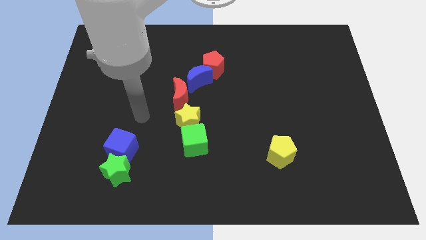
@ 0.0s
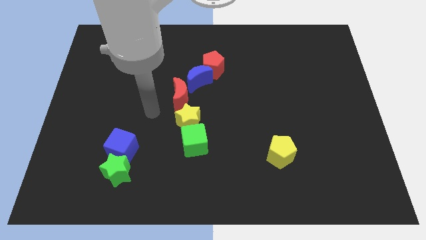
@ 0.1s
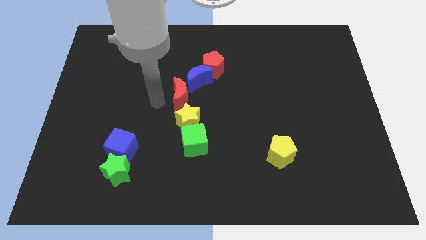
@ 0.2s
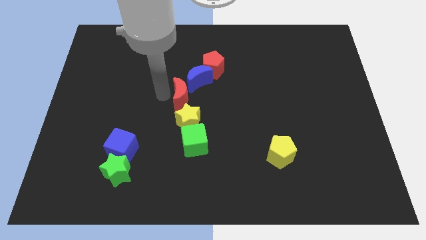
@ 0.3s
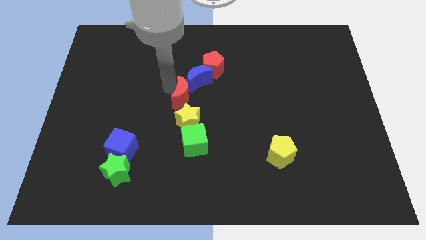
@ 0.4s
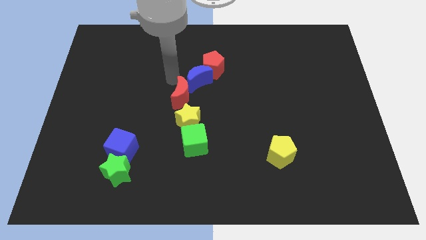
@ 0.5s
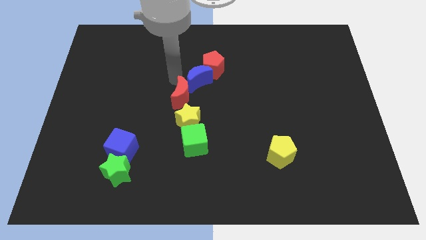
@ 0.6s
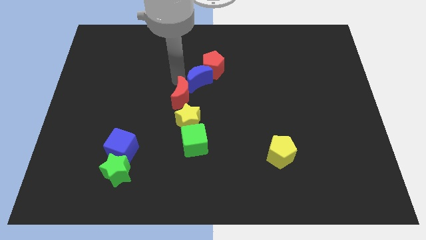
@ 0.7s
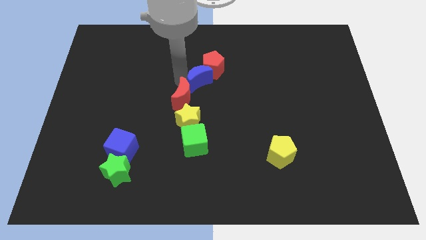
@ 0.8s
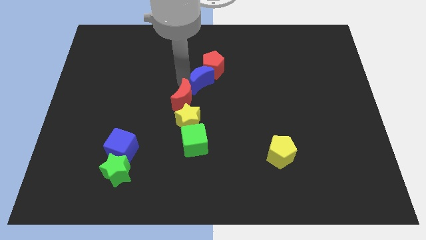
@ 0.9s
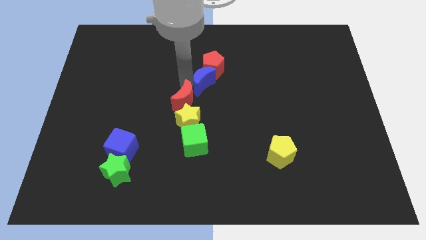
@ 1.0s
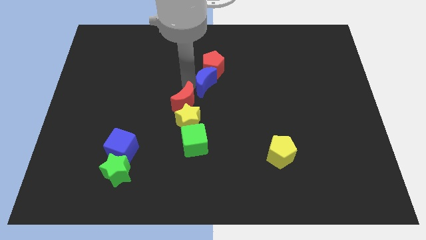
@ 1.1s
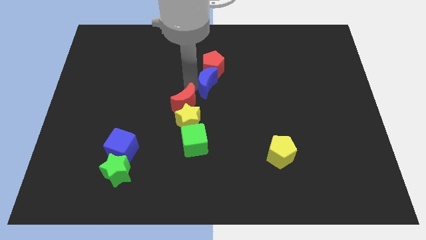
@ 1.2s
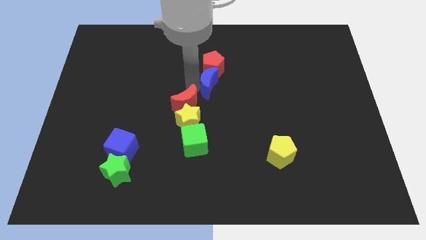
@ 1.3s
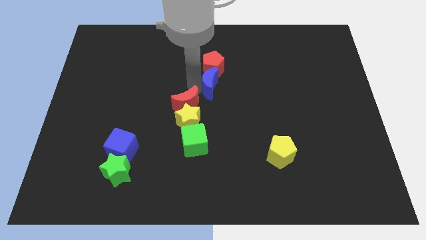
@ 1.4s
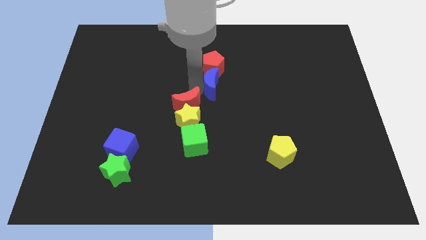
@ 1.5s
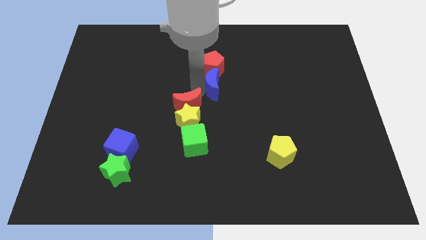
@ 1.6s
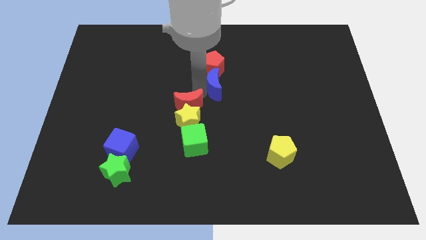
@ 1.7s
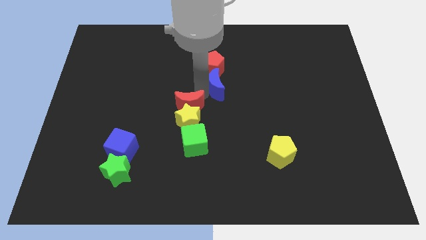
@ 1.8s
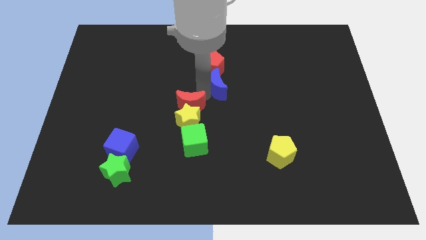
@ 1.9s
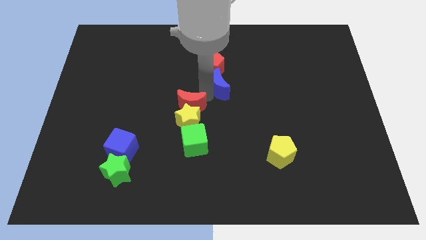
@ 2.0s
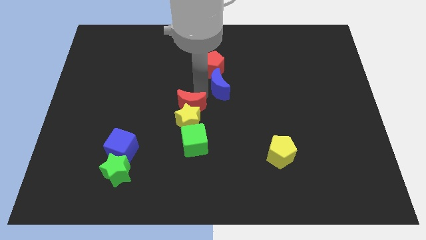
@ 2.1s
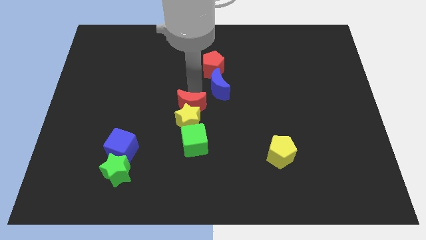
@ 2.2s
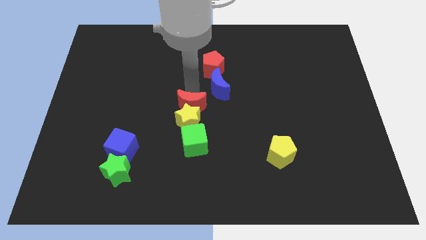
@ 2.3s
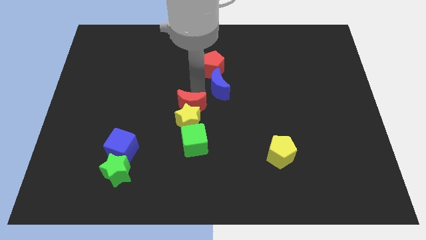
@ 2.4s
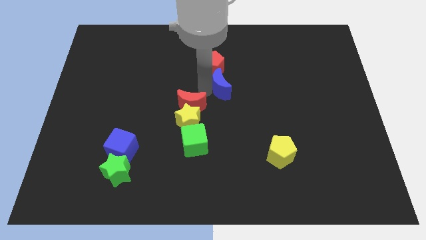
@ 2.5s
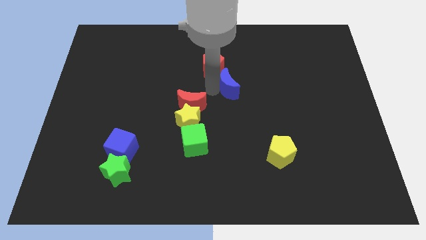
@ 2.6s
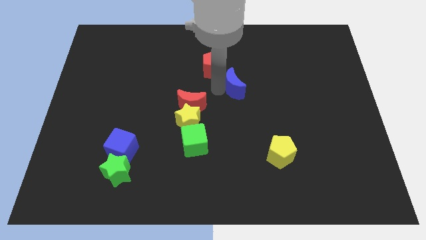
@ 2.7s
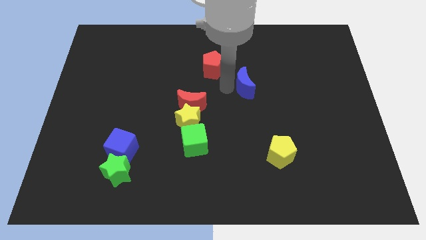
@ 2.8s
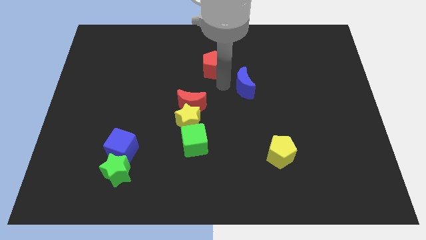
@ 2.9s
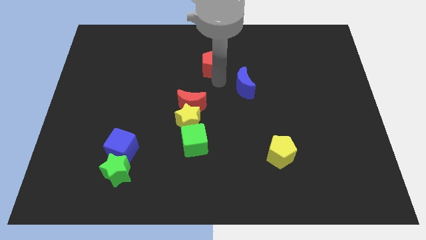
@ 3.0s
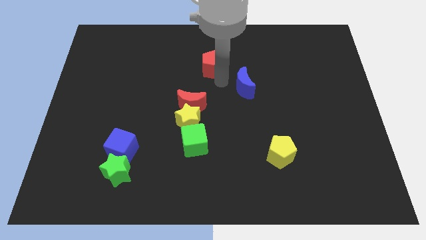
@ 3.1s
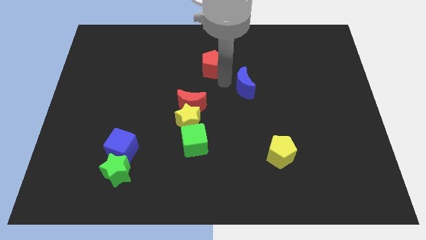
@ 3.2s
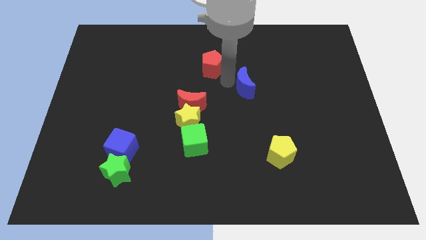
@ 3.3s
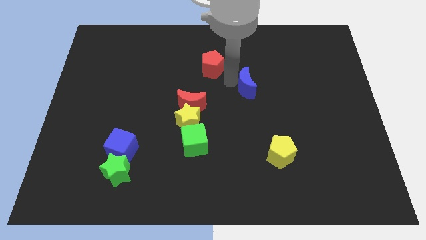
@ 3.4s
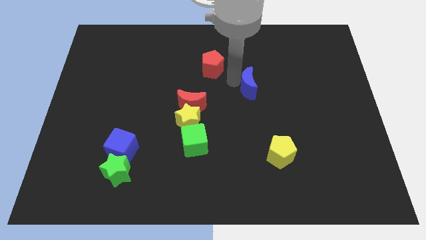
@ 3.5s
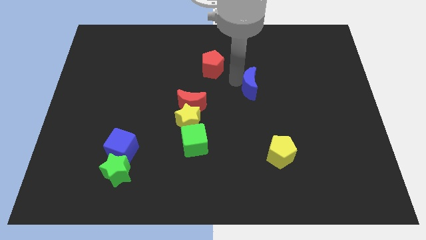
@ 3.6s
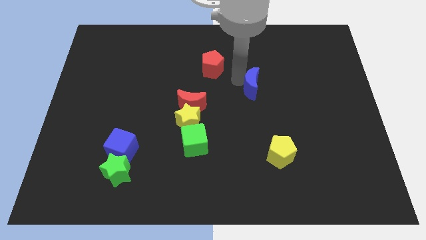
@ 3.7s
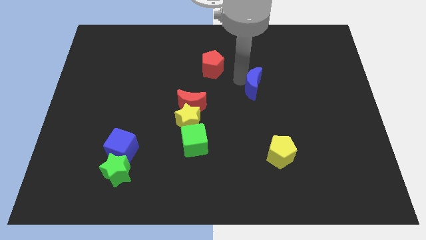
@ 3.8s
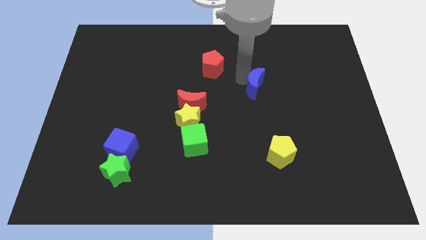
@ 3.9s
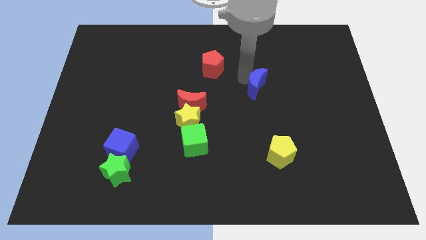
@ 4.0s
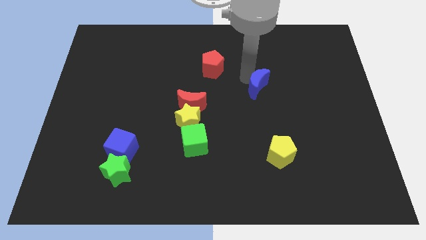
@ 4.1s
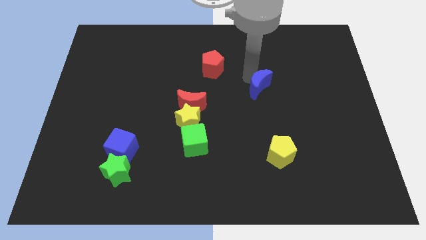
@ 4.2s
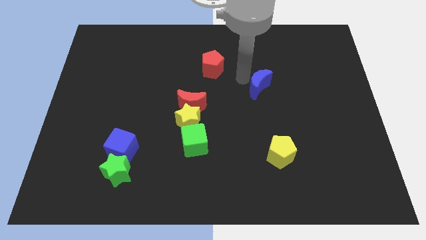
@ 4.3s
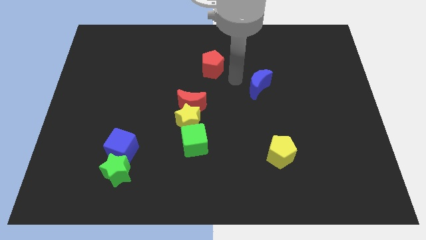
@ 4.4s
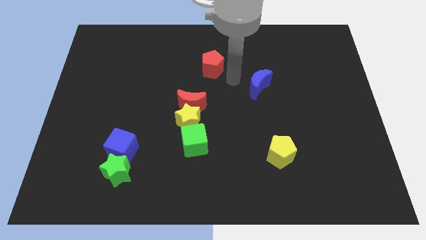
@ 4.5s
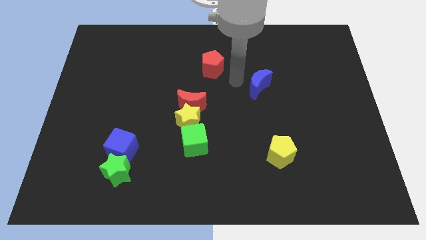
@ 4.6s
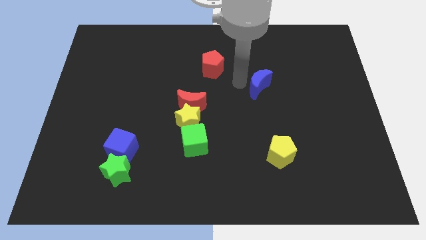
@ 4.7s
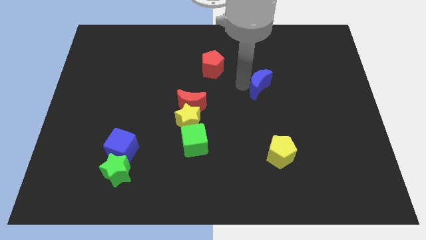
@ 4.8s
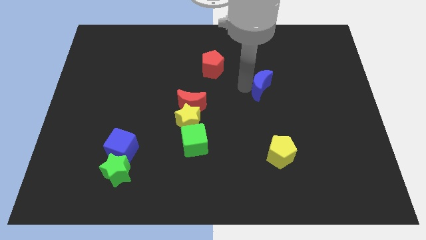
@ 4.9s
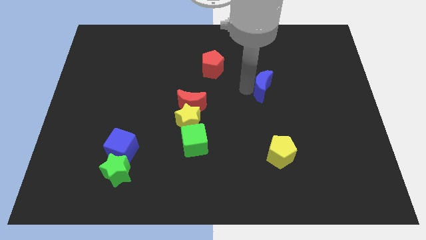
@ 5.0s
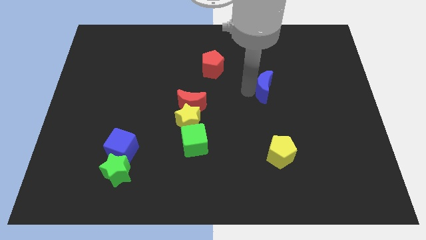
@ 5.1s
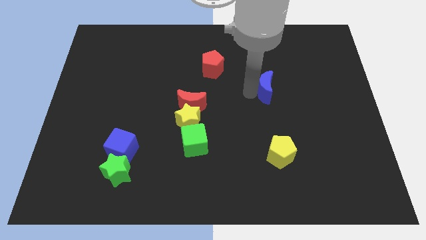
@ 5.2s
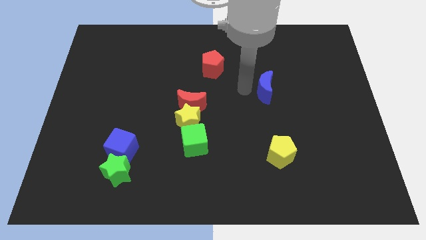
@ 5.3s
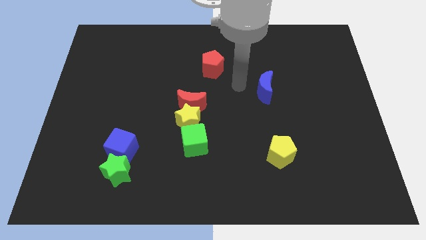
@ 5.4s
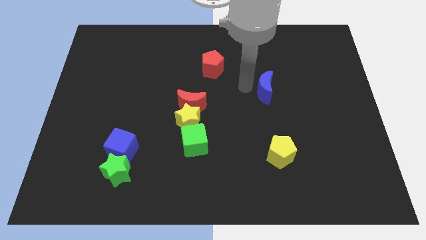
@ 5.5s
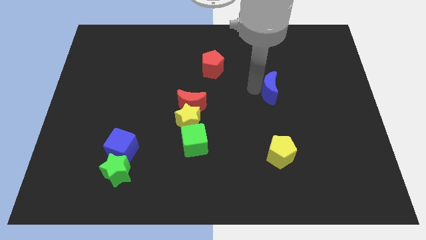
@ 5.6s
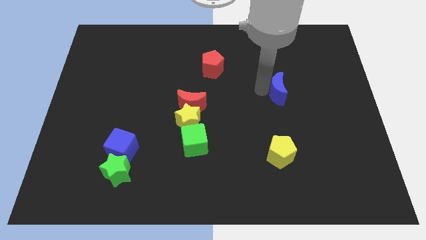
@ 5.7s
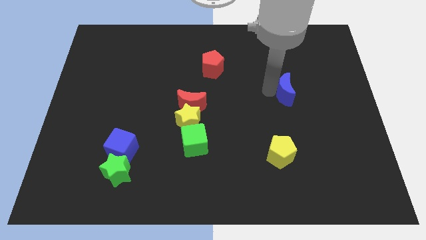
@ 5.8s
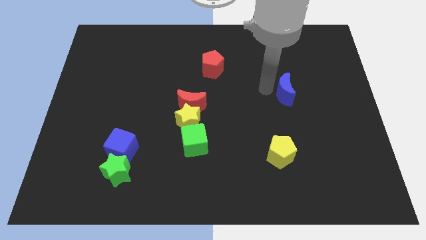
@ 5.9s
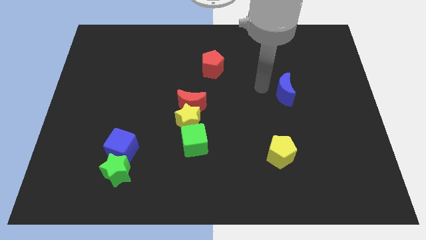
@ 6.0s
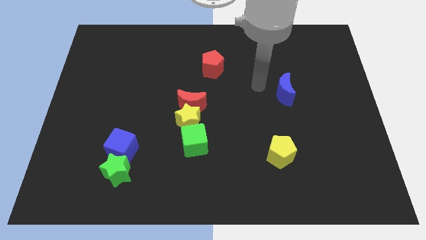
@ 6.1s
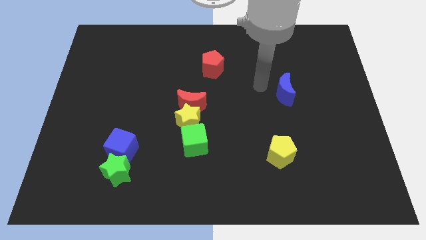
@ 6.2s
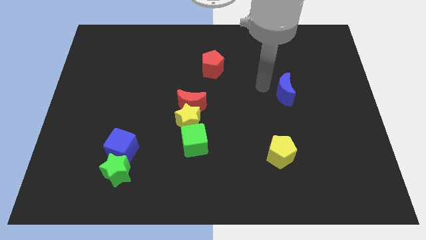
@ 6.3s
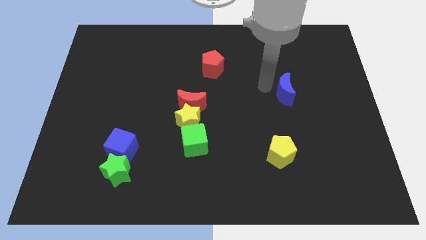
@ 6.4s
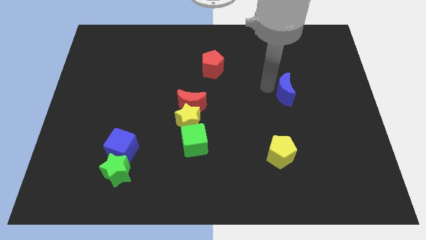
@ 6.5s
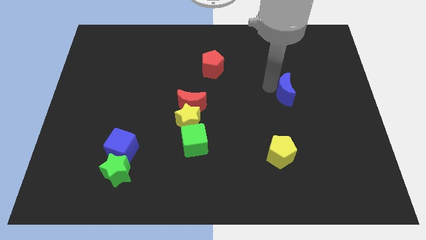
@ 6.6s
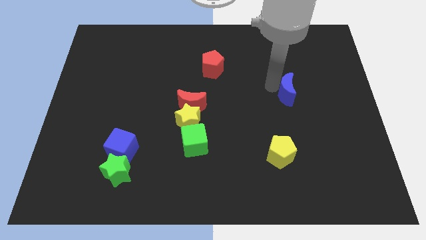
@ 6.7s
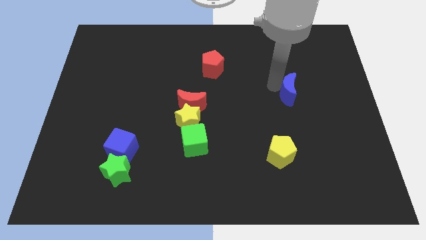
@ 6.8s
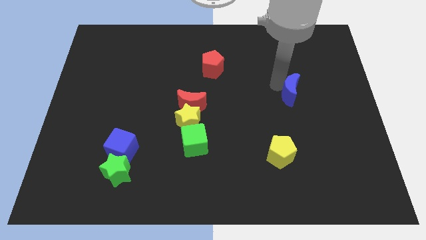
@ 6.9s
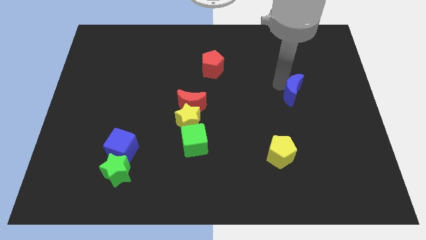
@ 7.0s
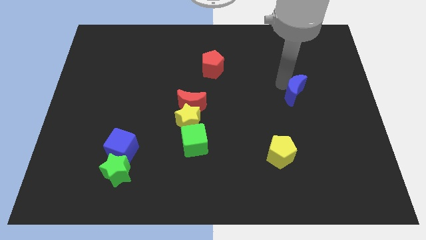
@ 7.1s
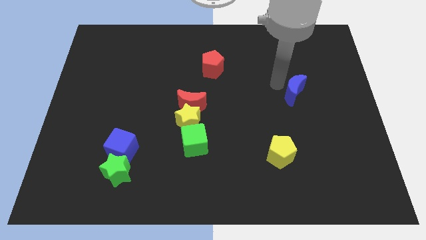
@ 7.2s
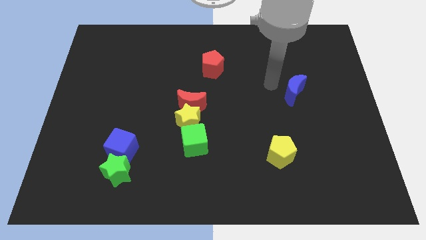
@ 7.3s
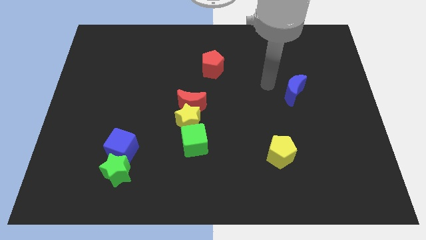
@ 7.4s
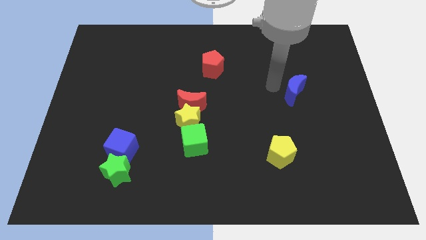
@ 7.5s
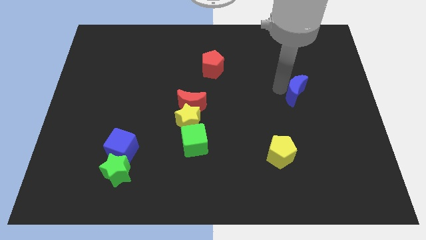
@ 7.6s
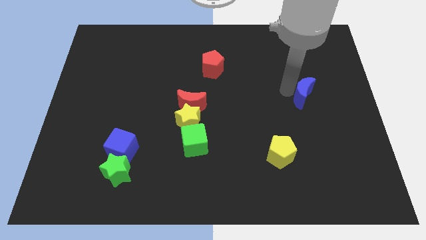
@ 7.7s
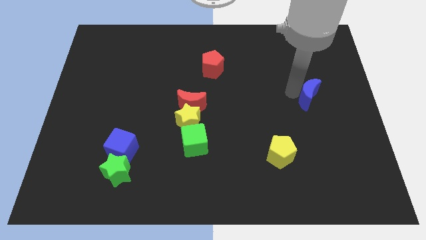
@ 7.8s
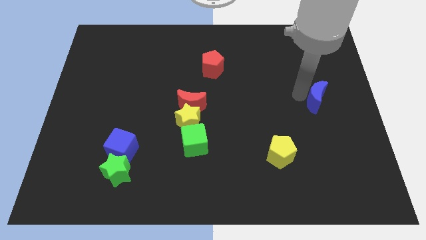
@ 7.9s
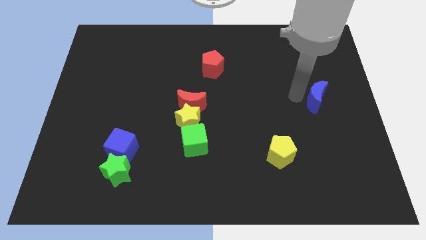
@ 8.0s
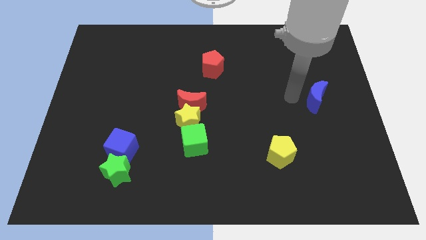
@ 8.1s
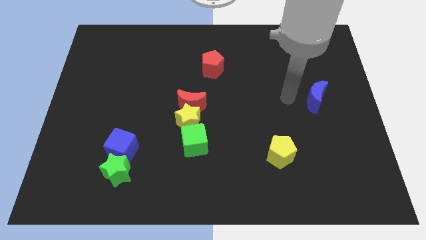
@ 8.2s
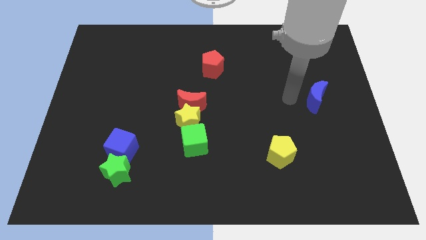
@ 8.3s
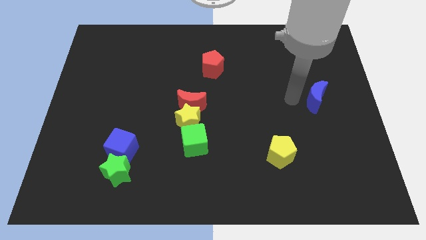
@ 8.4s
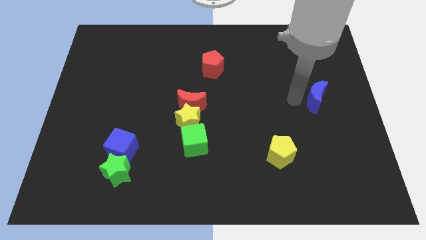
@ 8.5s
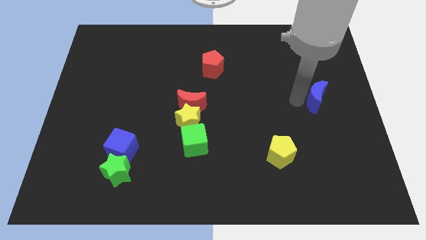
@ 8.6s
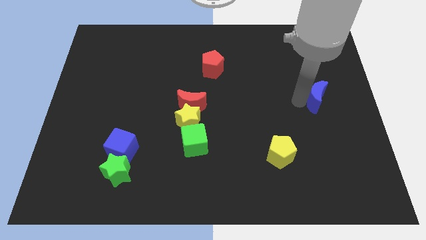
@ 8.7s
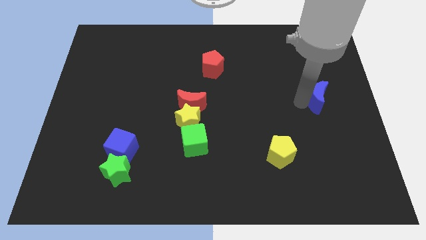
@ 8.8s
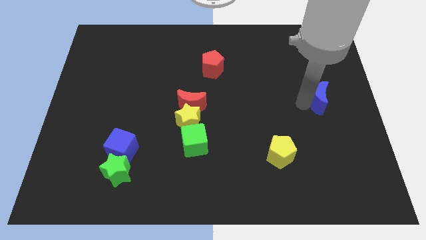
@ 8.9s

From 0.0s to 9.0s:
slide the blue moon to the center right
